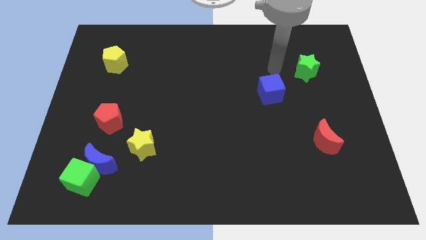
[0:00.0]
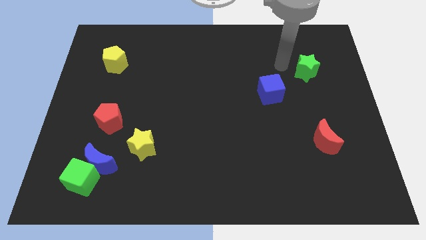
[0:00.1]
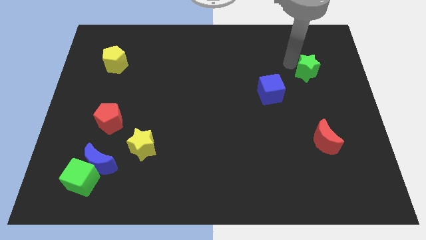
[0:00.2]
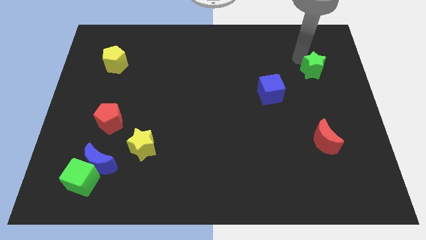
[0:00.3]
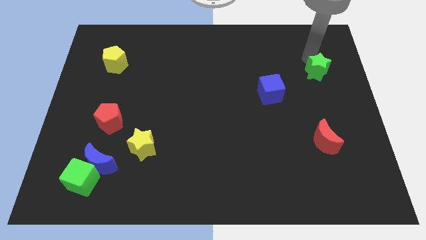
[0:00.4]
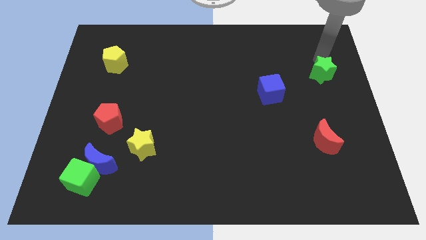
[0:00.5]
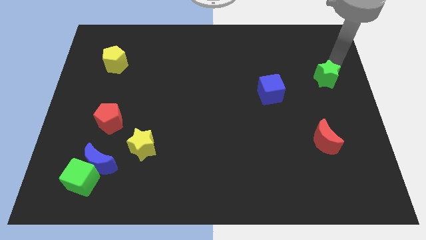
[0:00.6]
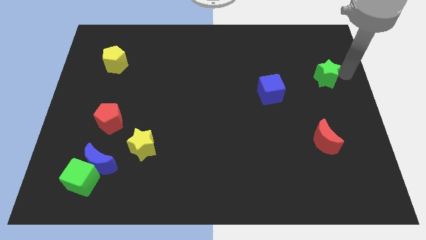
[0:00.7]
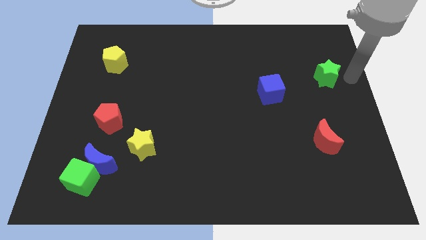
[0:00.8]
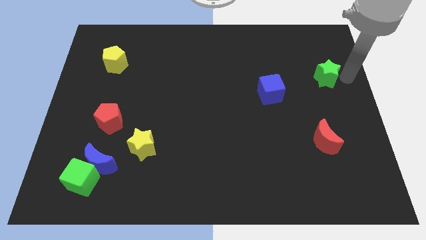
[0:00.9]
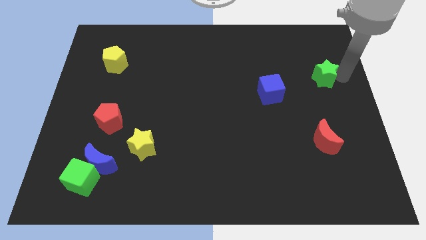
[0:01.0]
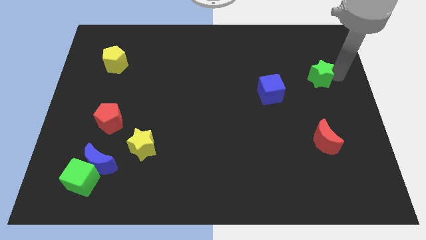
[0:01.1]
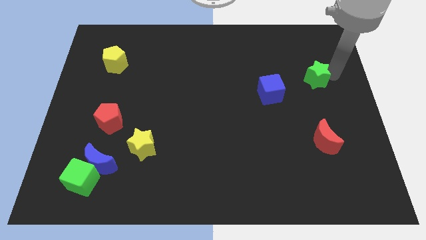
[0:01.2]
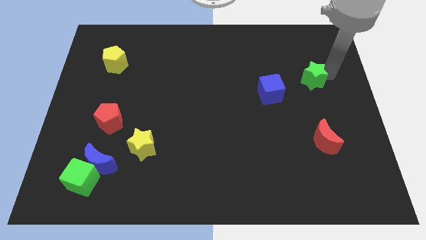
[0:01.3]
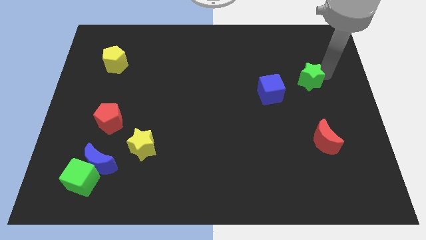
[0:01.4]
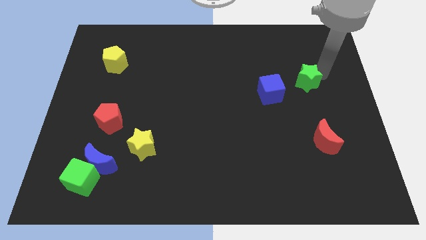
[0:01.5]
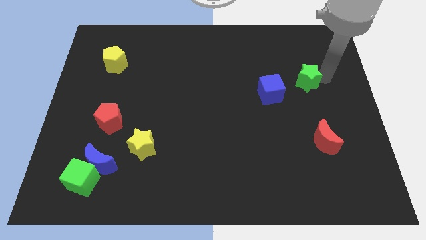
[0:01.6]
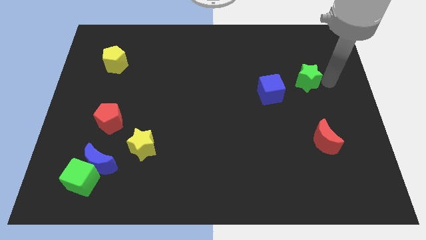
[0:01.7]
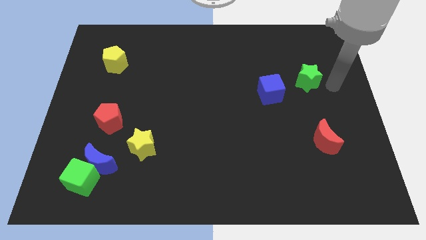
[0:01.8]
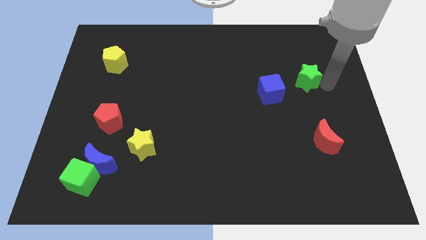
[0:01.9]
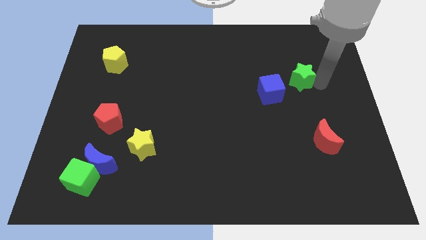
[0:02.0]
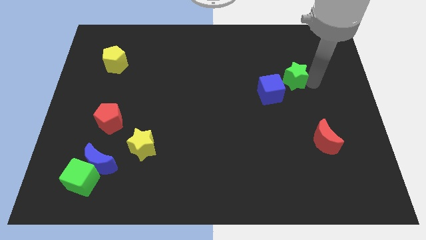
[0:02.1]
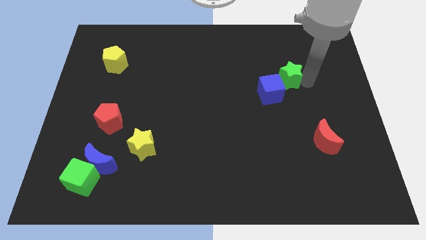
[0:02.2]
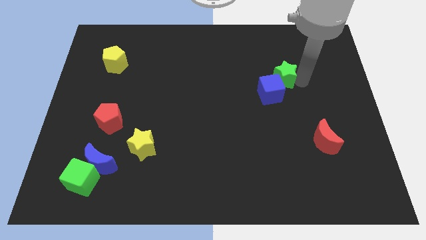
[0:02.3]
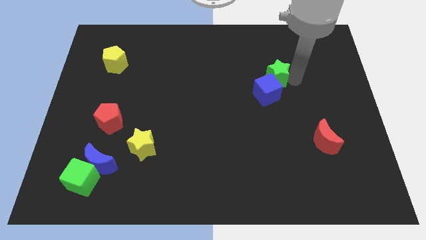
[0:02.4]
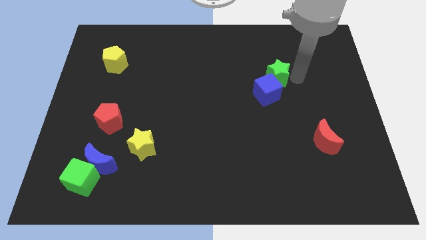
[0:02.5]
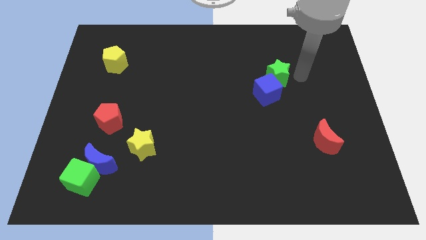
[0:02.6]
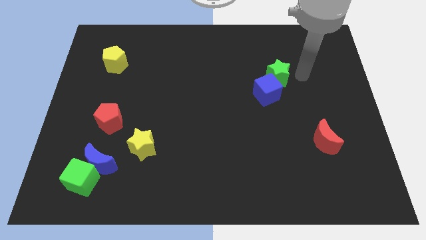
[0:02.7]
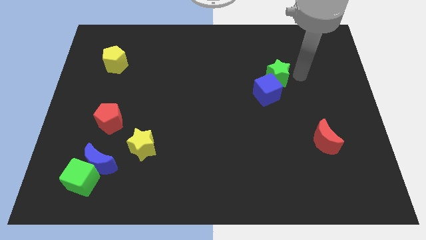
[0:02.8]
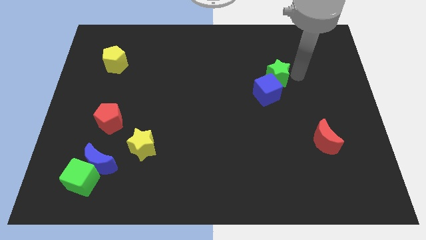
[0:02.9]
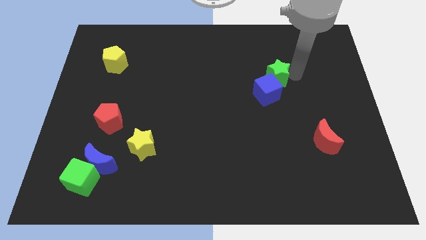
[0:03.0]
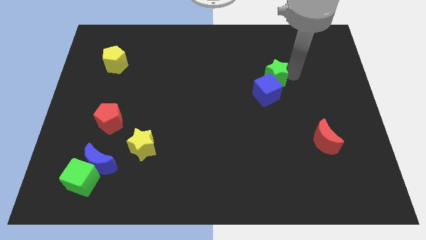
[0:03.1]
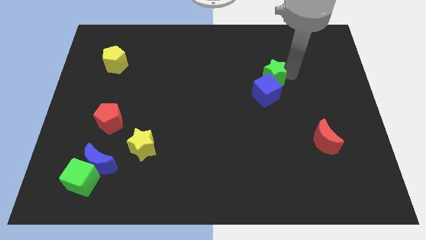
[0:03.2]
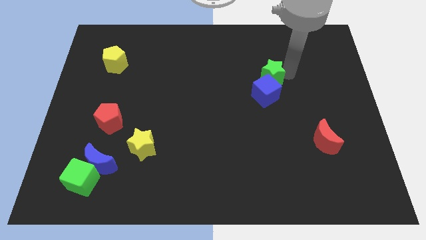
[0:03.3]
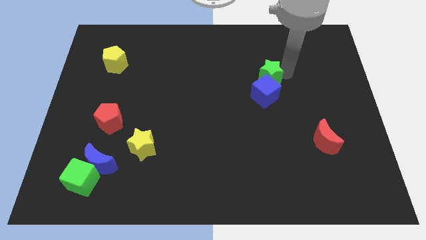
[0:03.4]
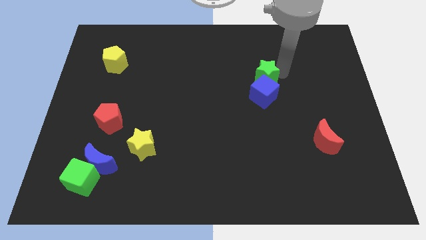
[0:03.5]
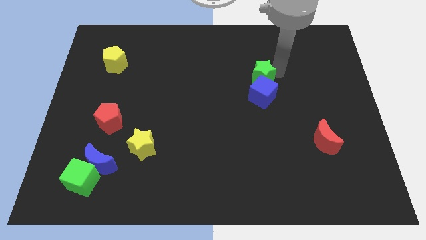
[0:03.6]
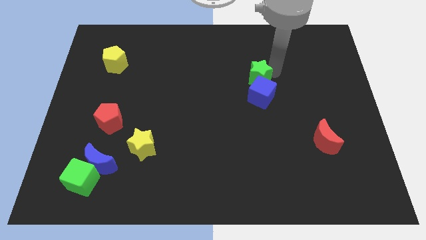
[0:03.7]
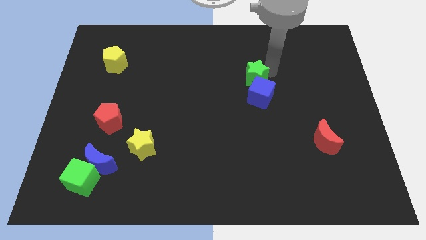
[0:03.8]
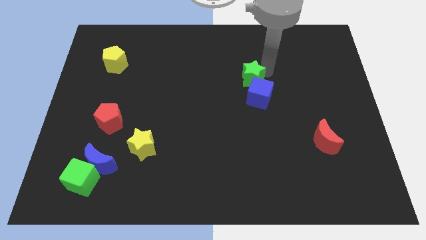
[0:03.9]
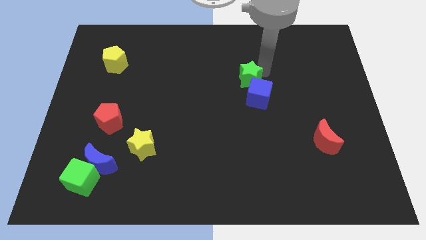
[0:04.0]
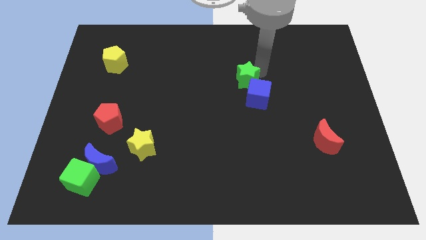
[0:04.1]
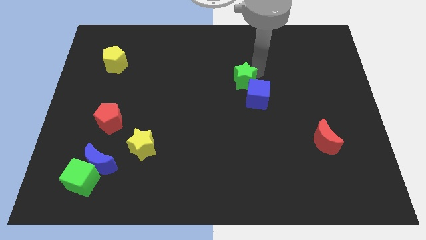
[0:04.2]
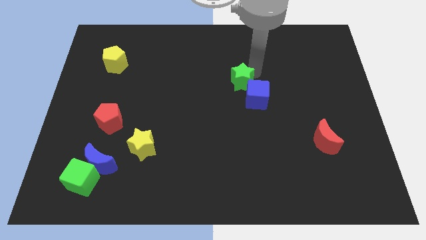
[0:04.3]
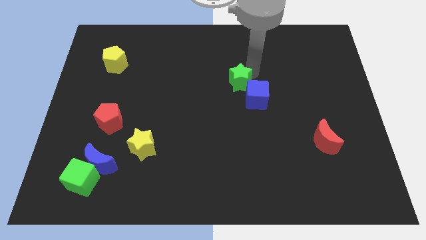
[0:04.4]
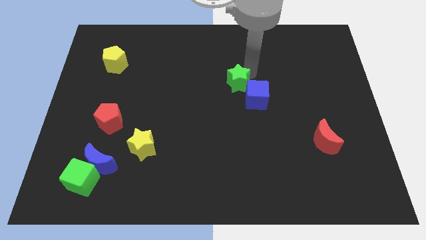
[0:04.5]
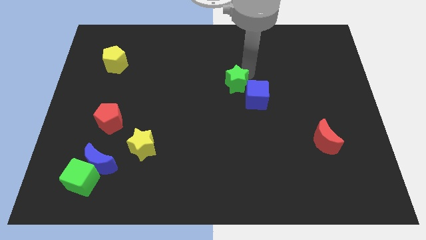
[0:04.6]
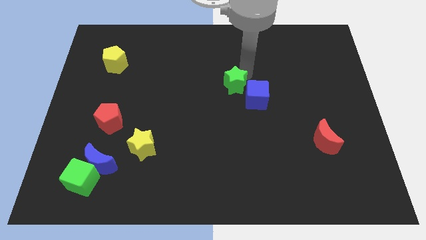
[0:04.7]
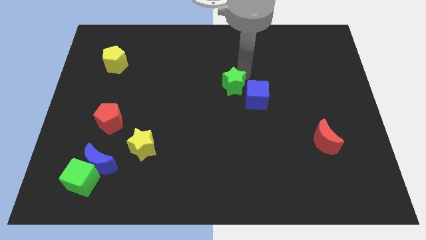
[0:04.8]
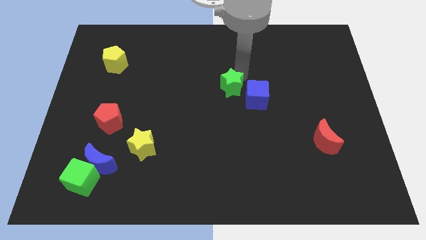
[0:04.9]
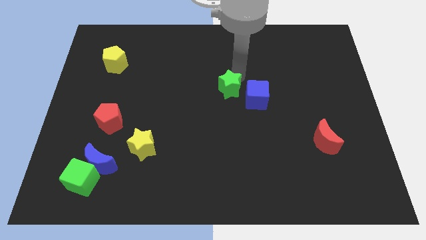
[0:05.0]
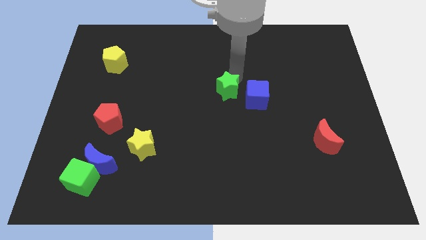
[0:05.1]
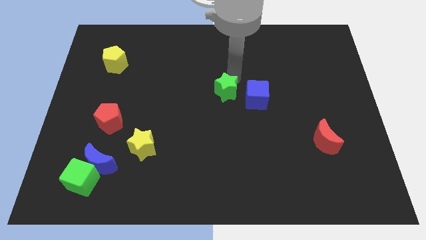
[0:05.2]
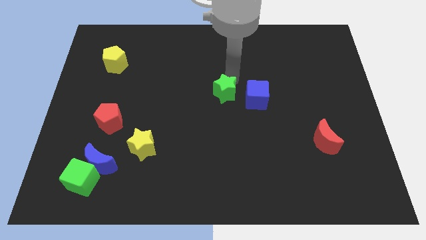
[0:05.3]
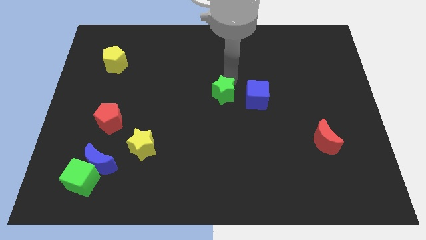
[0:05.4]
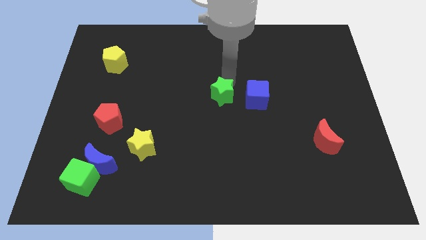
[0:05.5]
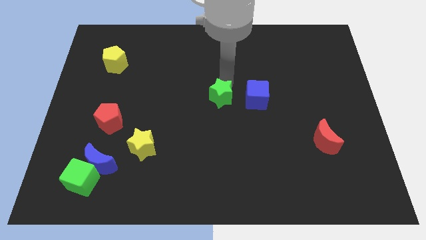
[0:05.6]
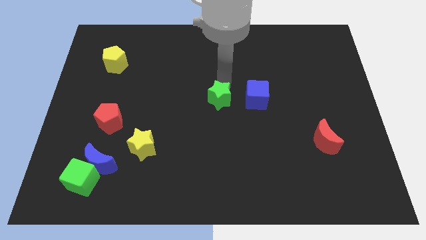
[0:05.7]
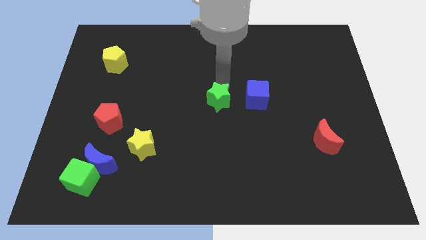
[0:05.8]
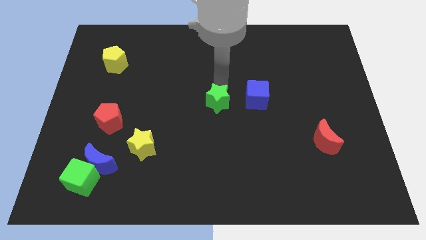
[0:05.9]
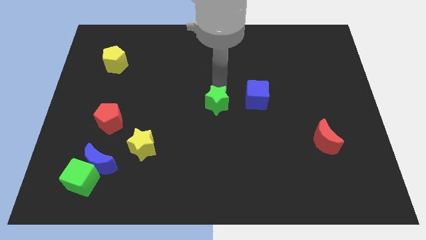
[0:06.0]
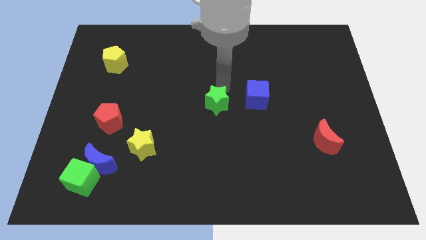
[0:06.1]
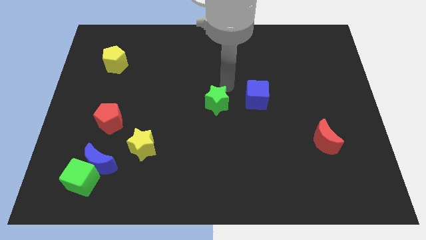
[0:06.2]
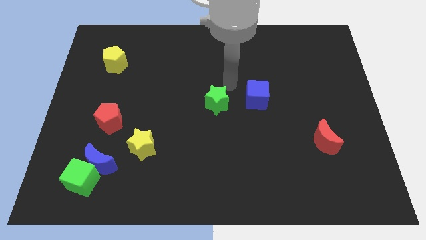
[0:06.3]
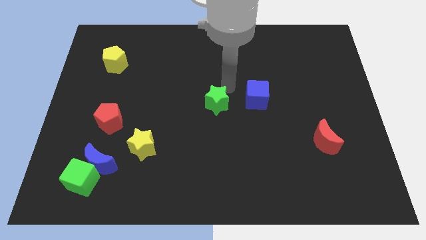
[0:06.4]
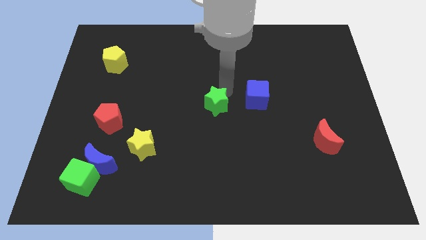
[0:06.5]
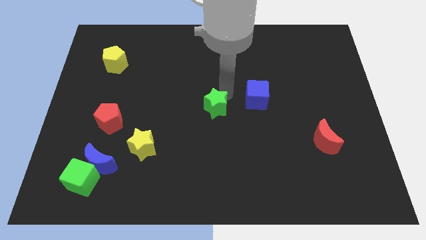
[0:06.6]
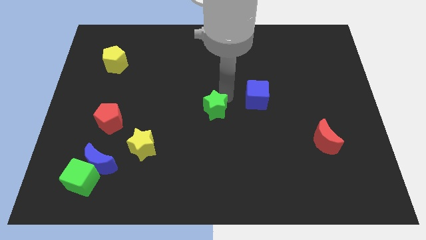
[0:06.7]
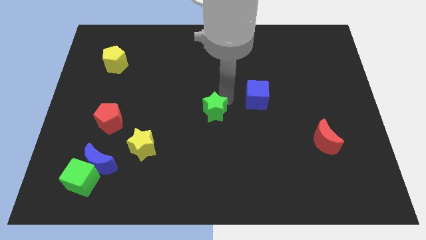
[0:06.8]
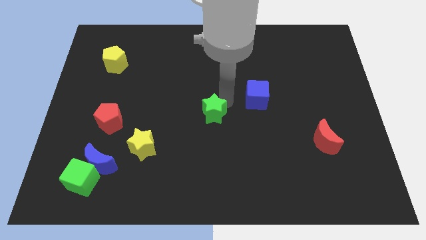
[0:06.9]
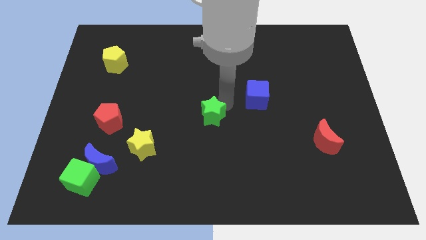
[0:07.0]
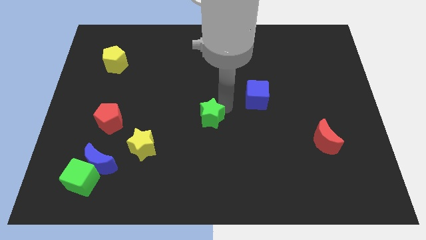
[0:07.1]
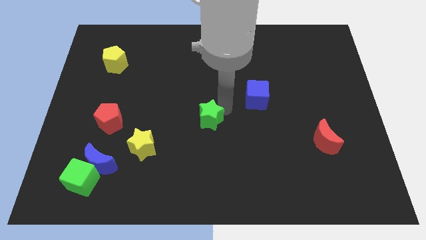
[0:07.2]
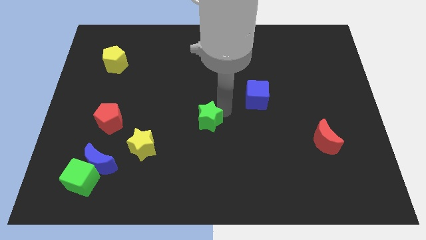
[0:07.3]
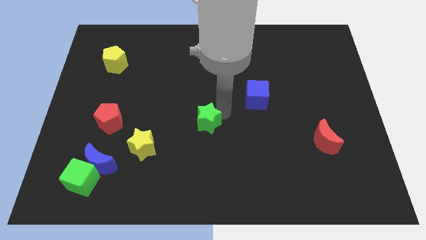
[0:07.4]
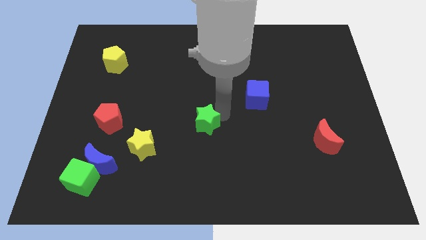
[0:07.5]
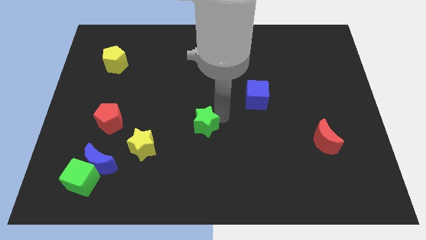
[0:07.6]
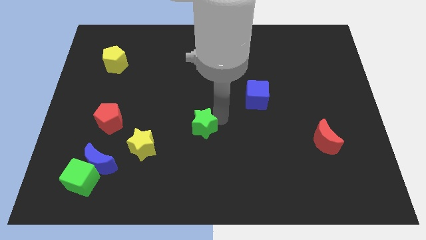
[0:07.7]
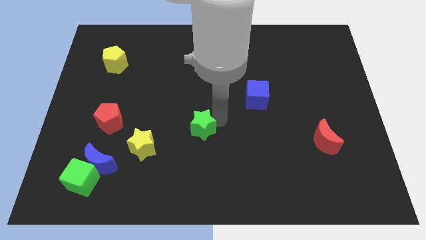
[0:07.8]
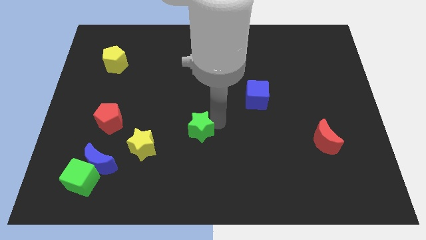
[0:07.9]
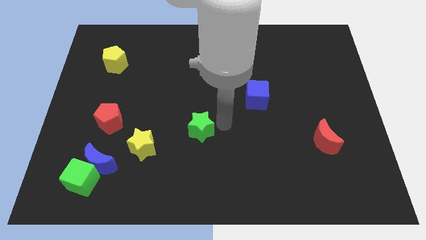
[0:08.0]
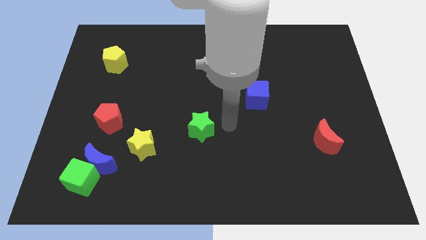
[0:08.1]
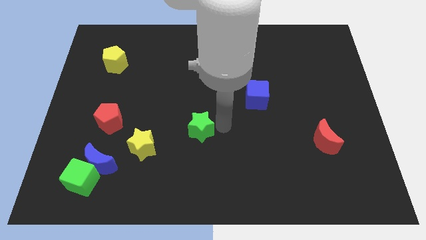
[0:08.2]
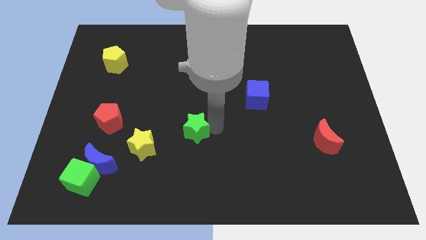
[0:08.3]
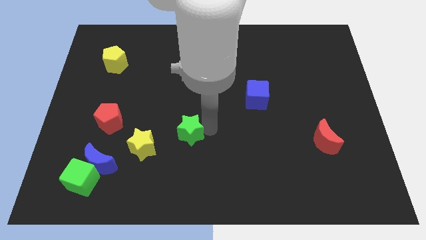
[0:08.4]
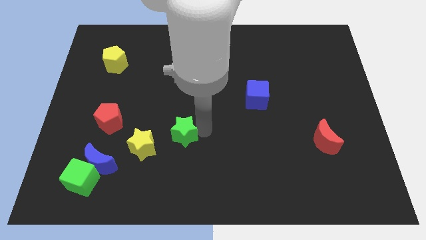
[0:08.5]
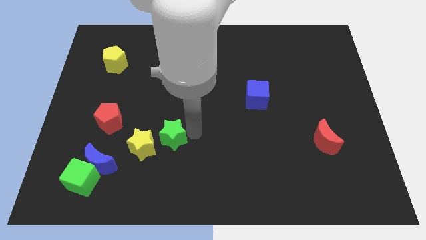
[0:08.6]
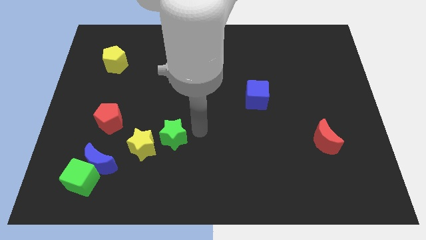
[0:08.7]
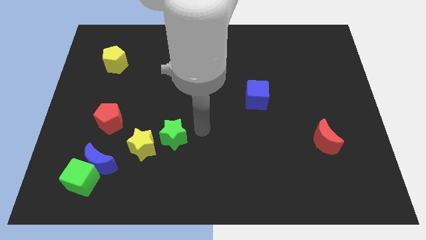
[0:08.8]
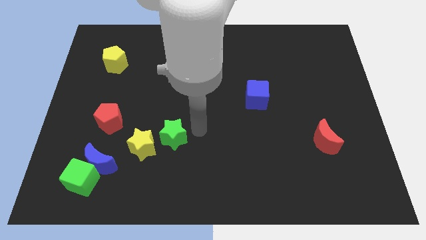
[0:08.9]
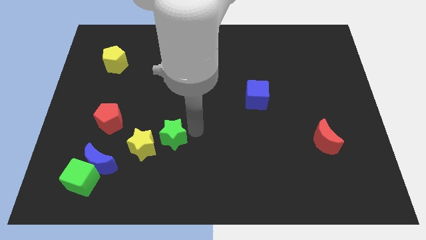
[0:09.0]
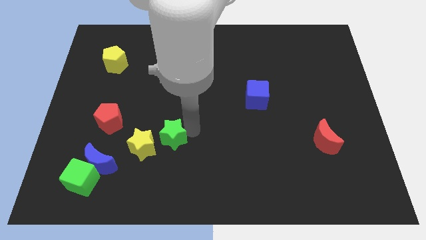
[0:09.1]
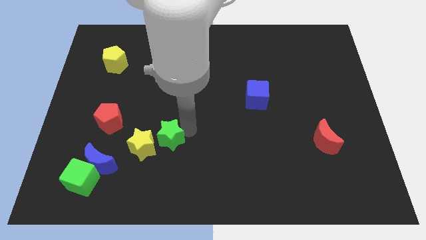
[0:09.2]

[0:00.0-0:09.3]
put the green star towards the yellow star
